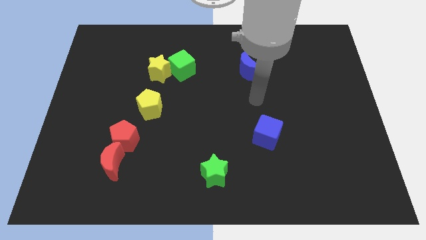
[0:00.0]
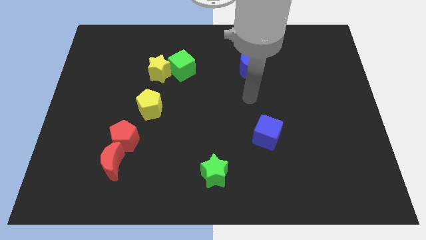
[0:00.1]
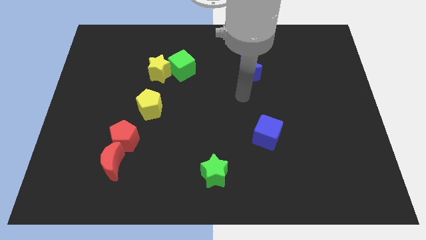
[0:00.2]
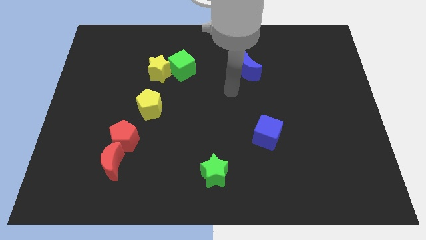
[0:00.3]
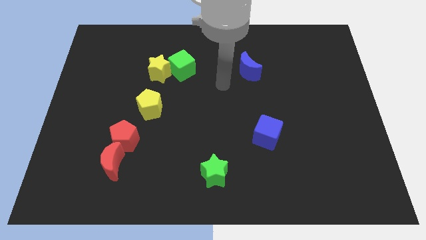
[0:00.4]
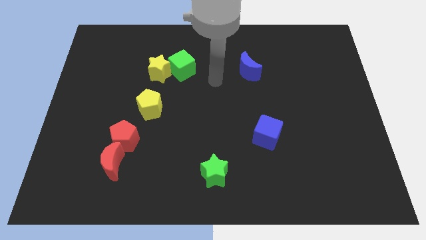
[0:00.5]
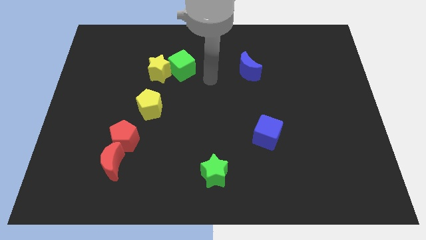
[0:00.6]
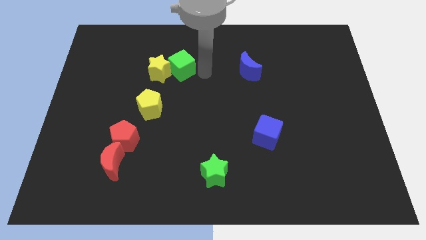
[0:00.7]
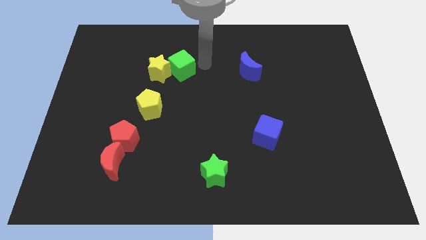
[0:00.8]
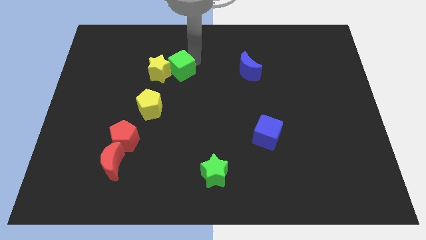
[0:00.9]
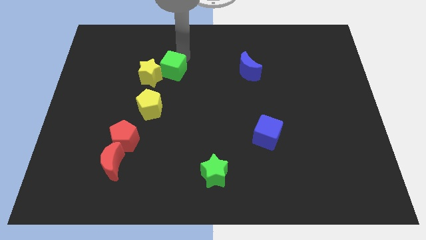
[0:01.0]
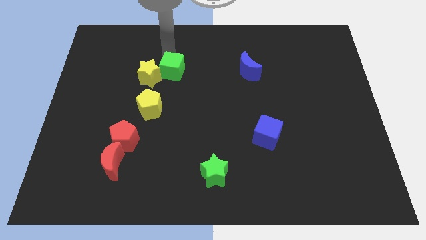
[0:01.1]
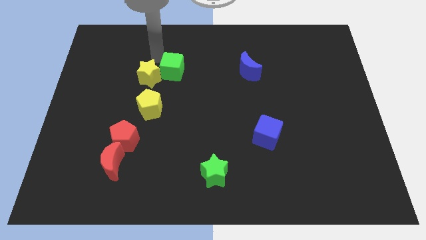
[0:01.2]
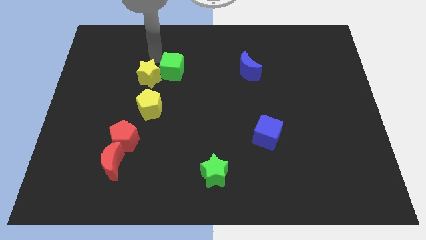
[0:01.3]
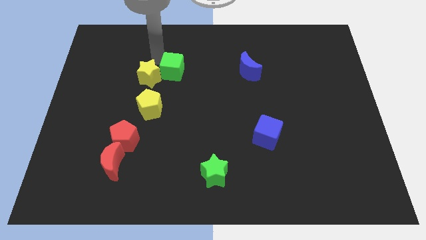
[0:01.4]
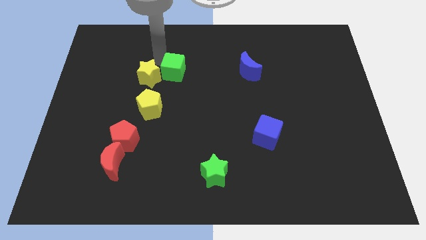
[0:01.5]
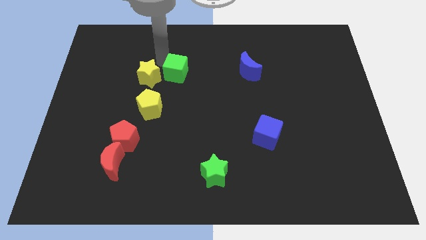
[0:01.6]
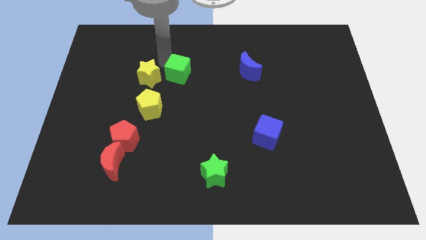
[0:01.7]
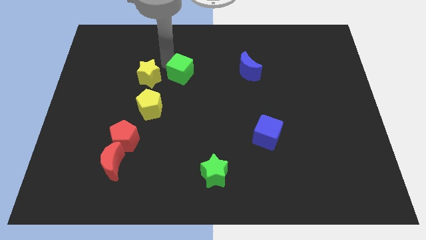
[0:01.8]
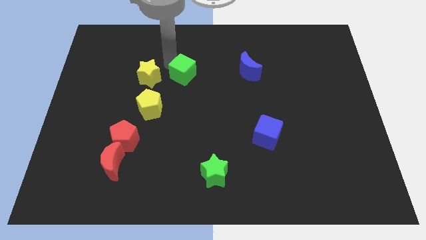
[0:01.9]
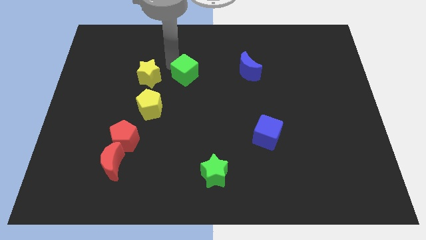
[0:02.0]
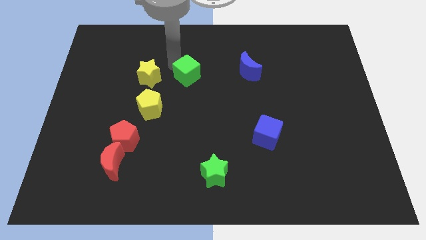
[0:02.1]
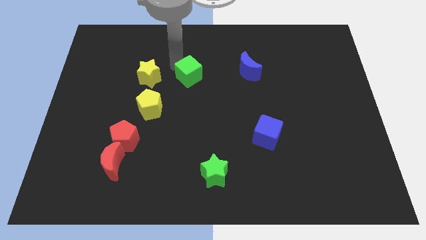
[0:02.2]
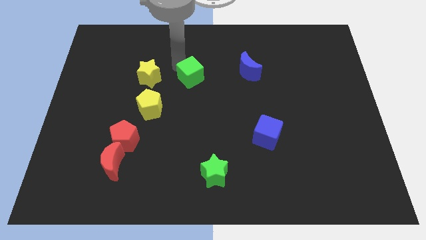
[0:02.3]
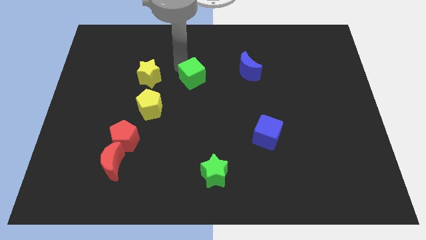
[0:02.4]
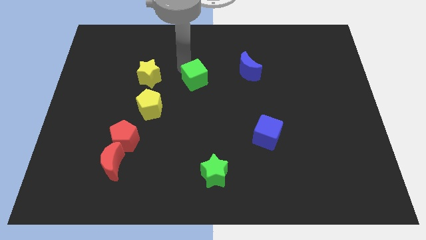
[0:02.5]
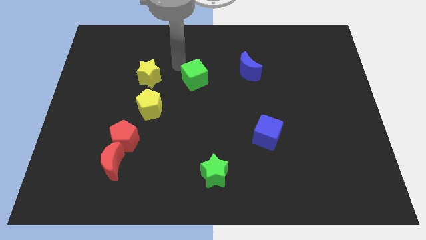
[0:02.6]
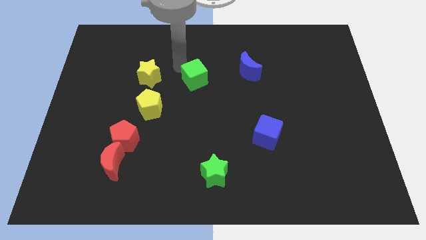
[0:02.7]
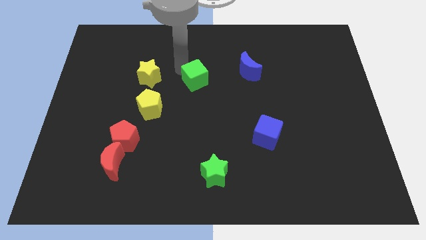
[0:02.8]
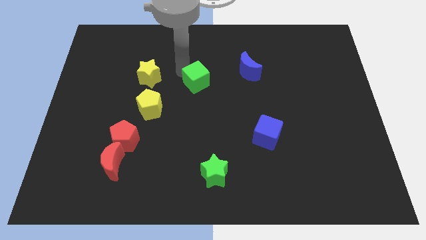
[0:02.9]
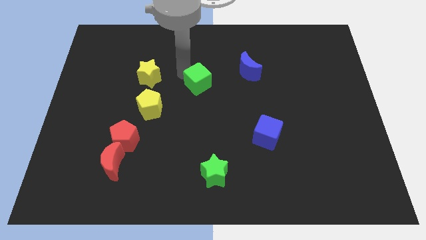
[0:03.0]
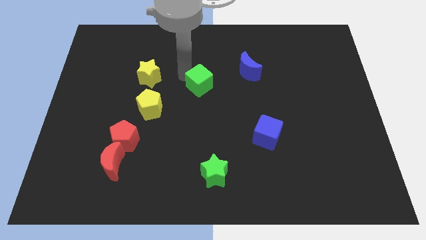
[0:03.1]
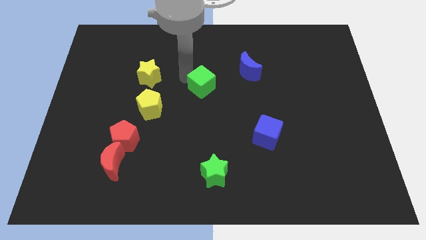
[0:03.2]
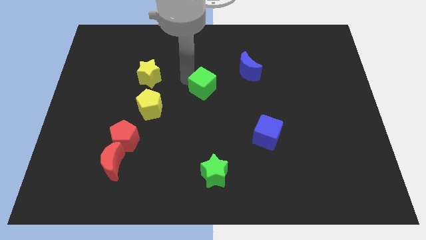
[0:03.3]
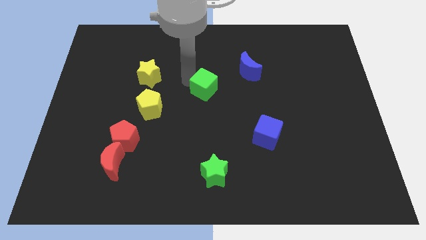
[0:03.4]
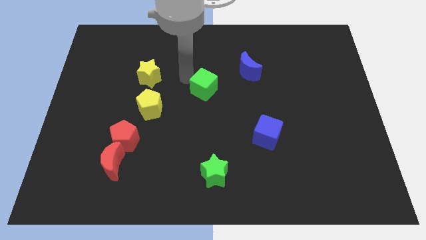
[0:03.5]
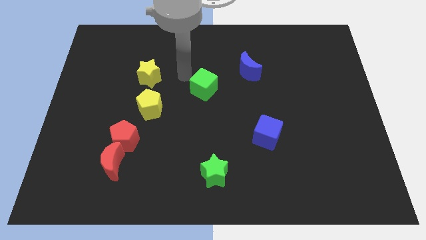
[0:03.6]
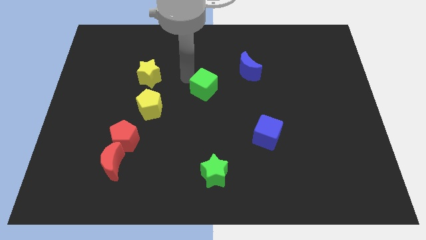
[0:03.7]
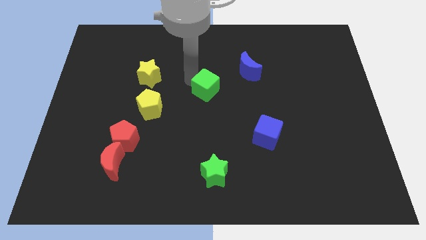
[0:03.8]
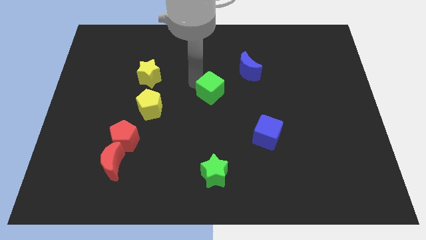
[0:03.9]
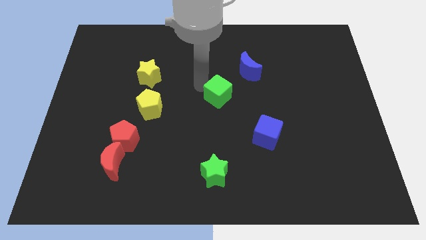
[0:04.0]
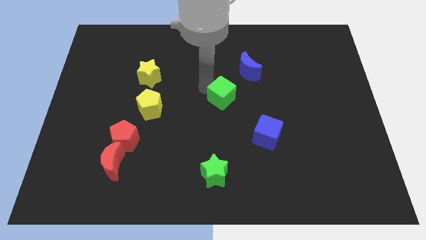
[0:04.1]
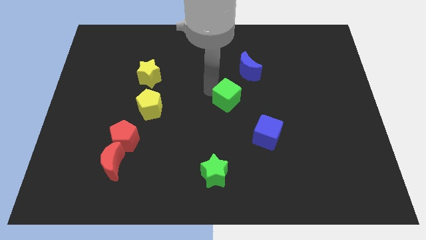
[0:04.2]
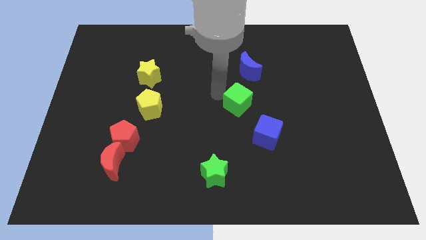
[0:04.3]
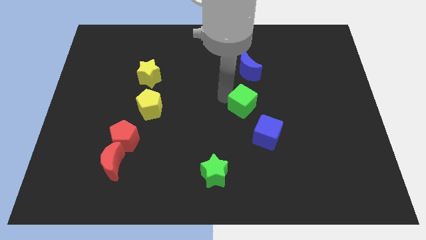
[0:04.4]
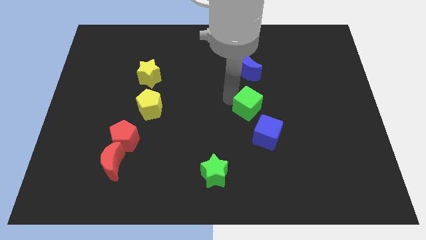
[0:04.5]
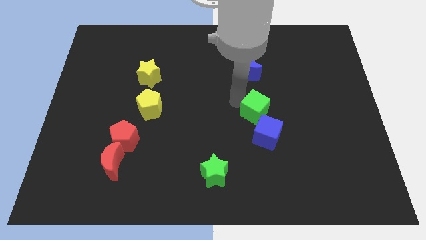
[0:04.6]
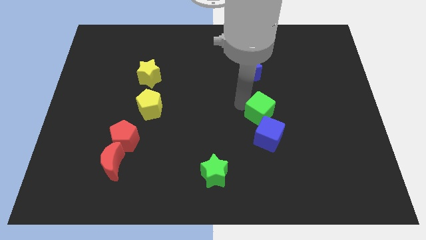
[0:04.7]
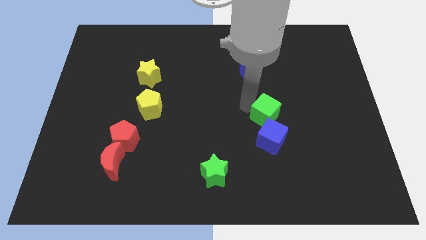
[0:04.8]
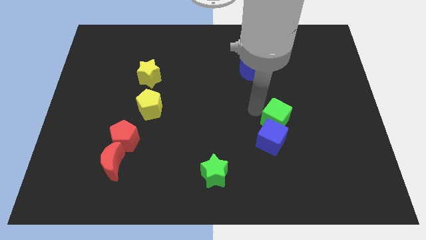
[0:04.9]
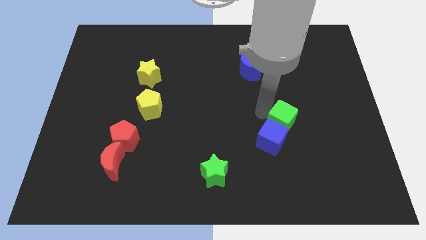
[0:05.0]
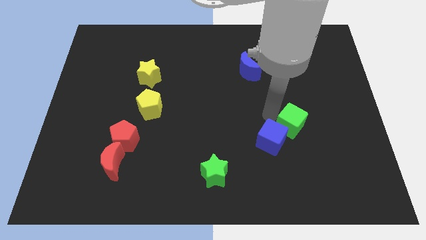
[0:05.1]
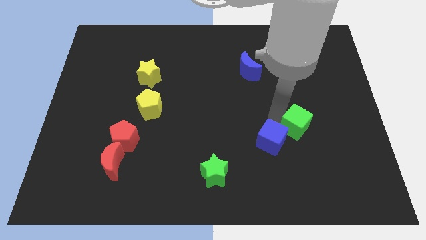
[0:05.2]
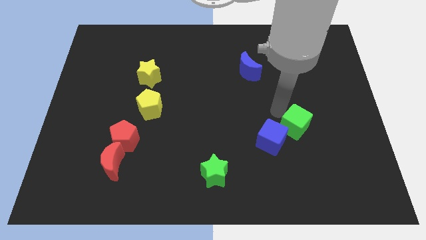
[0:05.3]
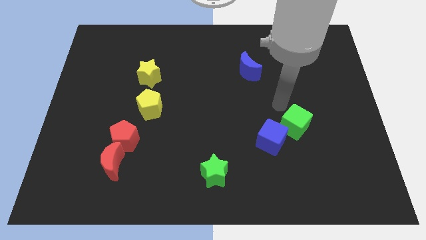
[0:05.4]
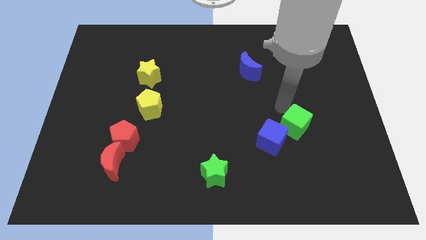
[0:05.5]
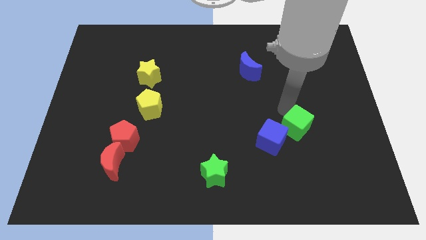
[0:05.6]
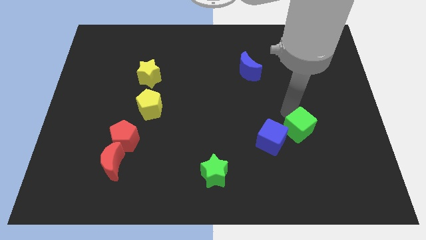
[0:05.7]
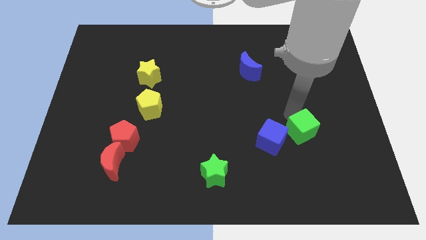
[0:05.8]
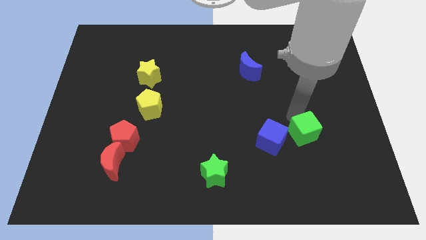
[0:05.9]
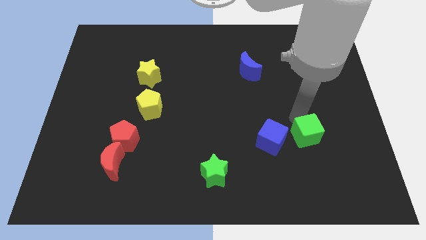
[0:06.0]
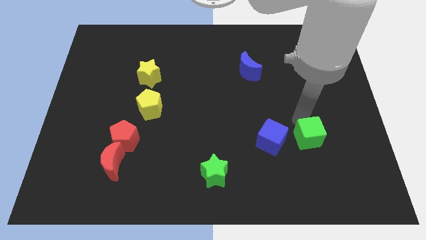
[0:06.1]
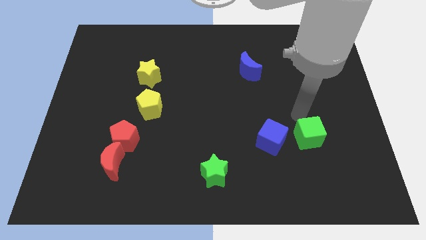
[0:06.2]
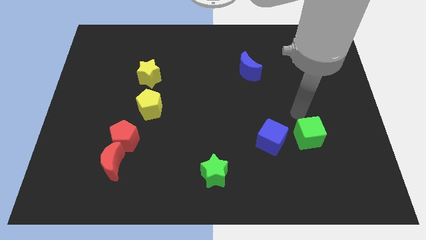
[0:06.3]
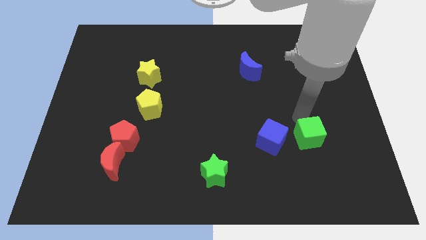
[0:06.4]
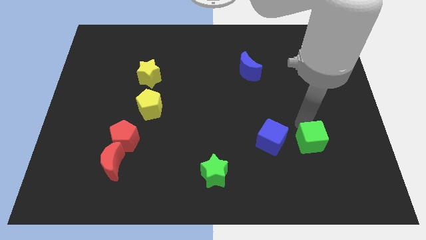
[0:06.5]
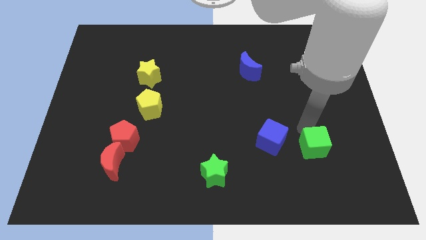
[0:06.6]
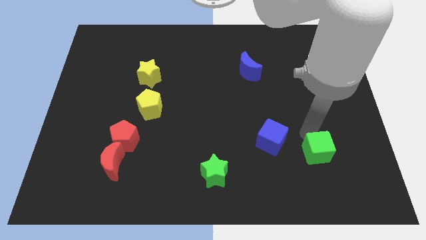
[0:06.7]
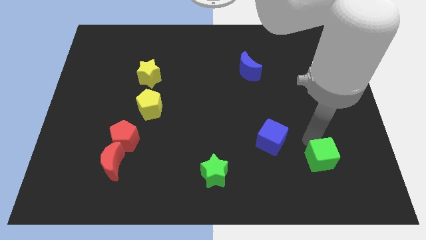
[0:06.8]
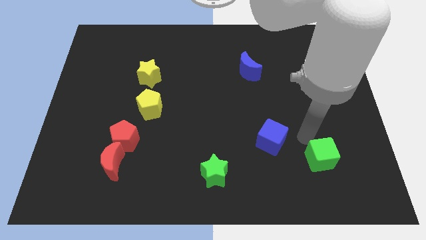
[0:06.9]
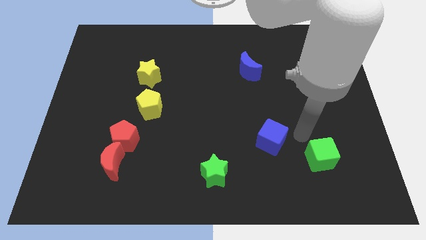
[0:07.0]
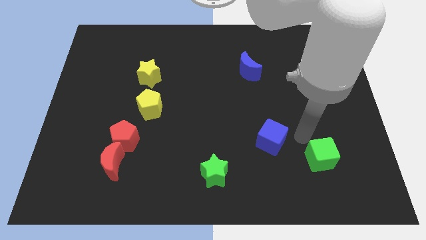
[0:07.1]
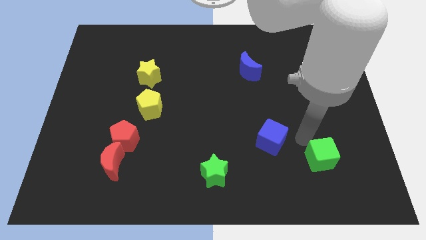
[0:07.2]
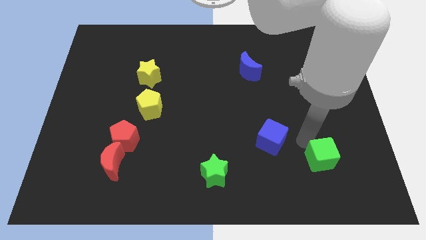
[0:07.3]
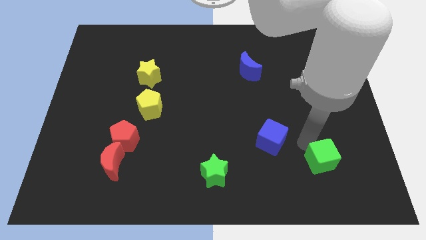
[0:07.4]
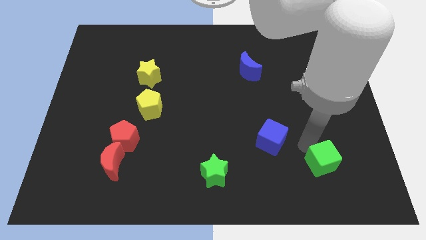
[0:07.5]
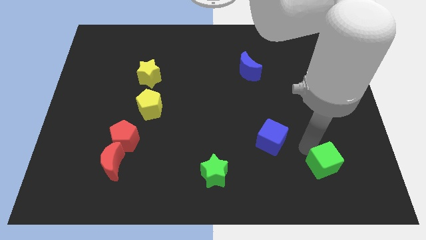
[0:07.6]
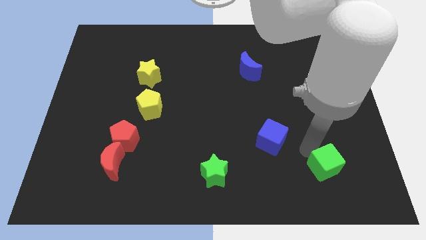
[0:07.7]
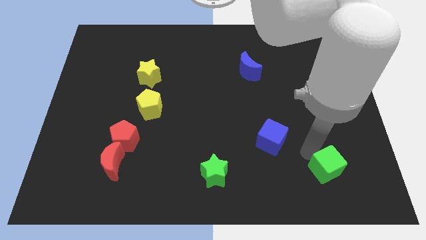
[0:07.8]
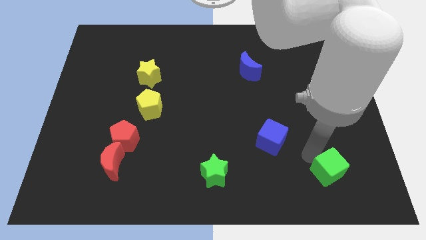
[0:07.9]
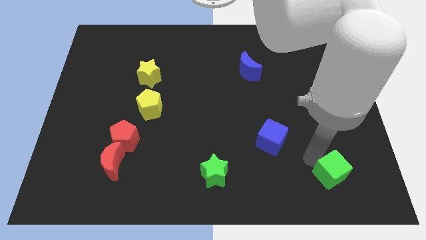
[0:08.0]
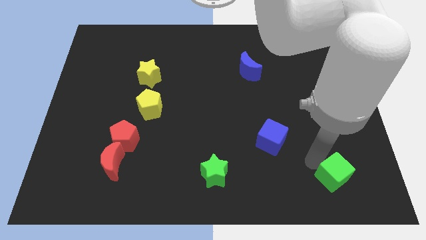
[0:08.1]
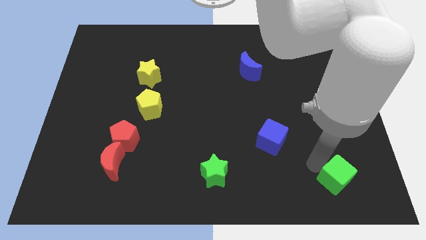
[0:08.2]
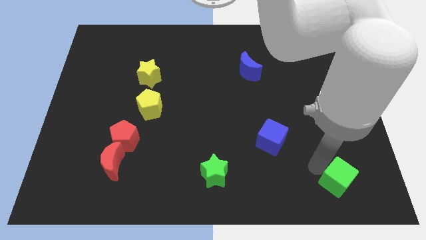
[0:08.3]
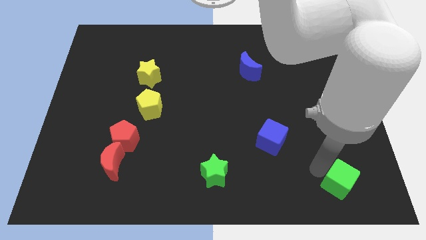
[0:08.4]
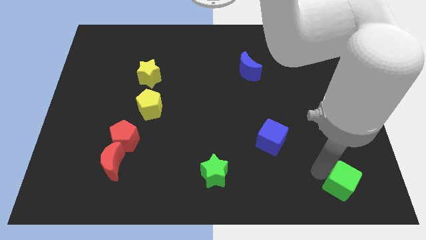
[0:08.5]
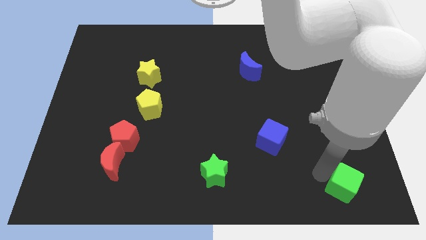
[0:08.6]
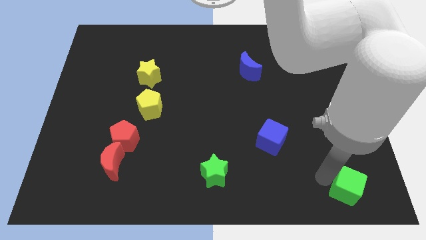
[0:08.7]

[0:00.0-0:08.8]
push the green cube to the bottom right corner
